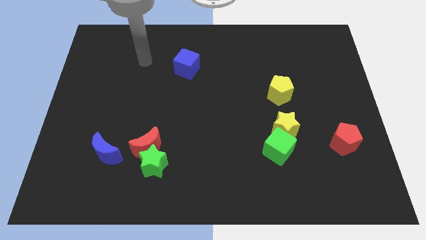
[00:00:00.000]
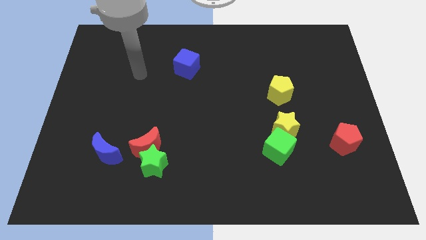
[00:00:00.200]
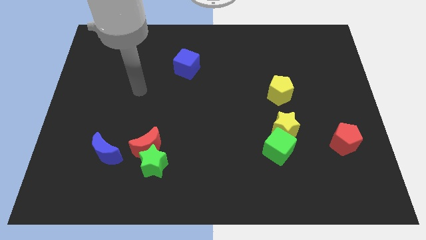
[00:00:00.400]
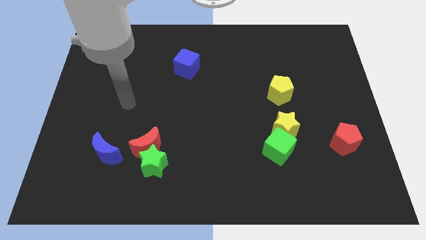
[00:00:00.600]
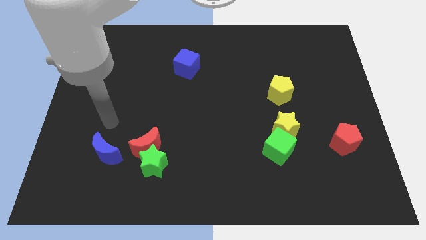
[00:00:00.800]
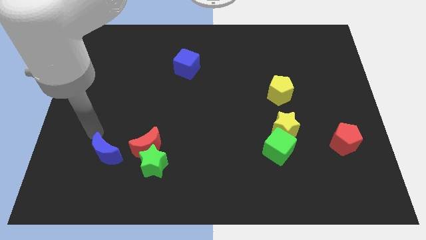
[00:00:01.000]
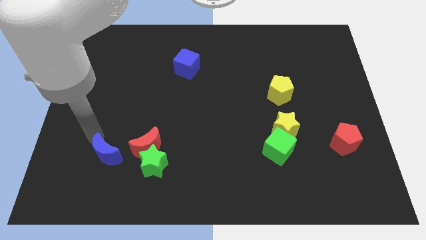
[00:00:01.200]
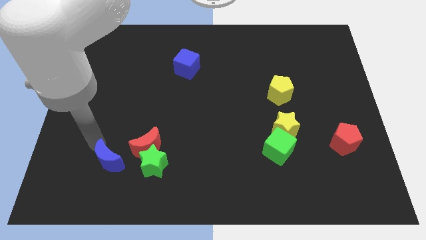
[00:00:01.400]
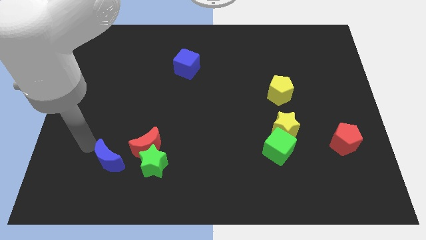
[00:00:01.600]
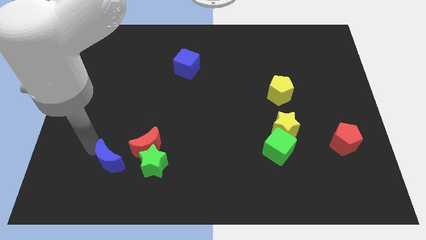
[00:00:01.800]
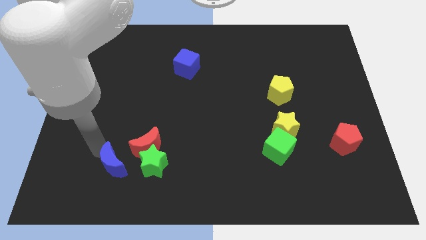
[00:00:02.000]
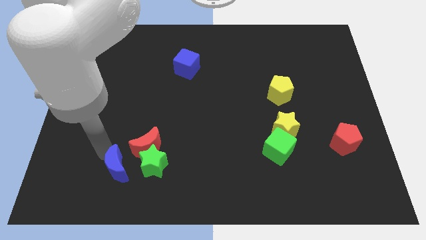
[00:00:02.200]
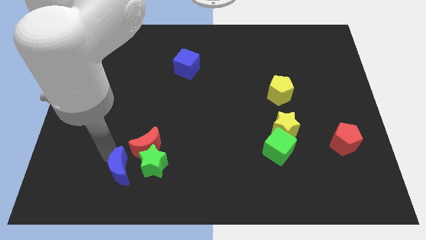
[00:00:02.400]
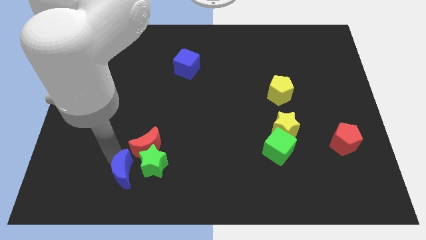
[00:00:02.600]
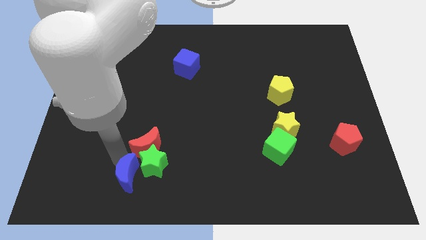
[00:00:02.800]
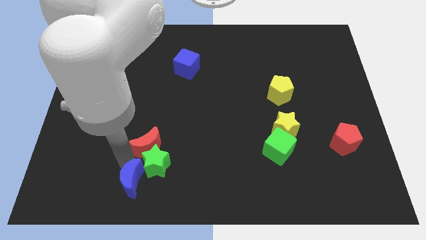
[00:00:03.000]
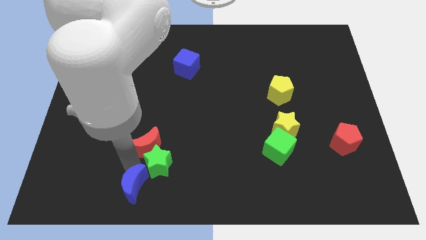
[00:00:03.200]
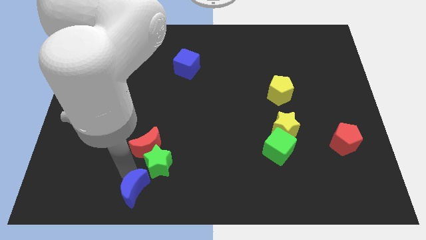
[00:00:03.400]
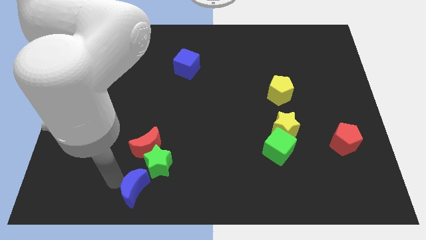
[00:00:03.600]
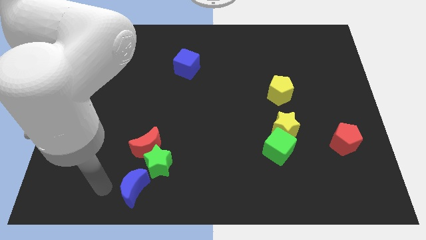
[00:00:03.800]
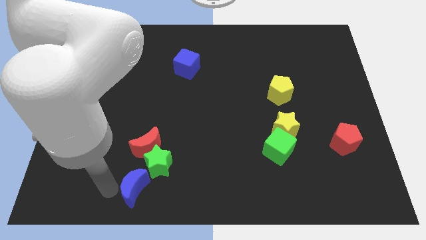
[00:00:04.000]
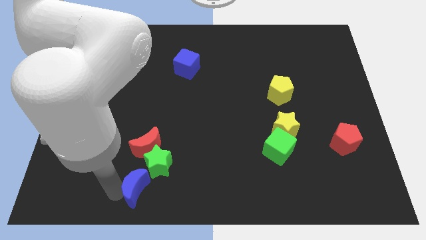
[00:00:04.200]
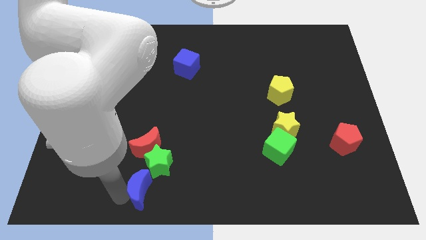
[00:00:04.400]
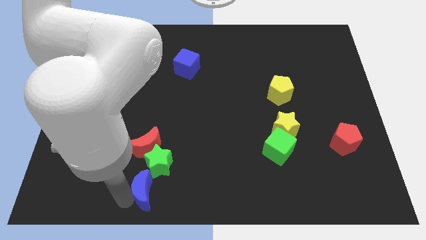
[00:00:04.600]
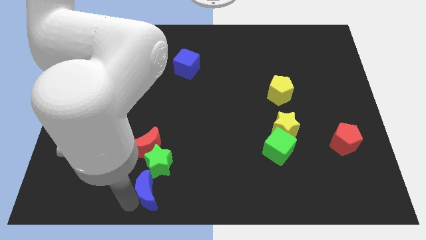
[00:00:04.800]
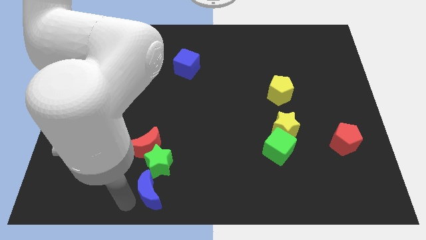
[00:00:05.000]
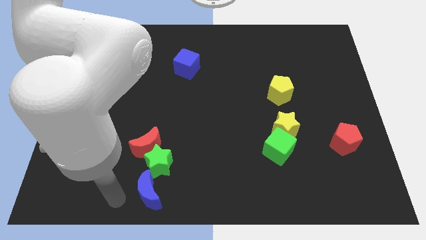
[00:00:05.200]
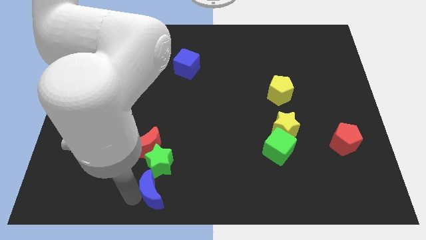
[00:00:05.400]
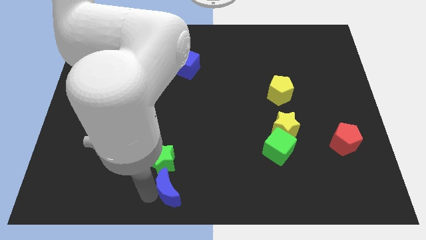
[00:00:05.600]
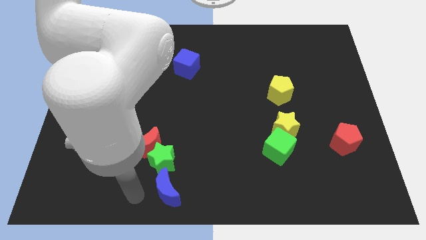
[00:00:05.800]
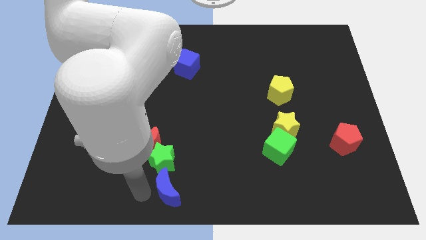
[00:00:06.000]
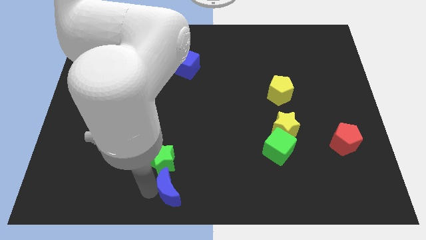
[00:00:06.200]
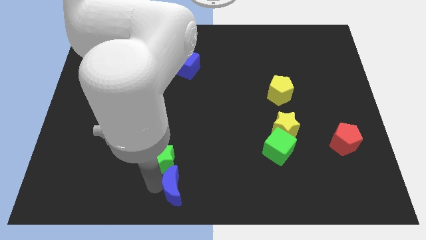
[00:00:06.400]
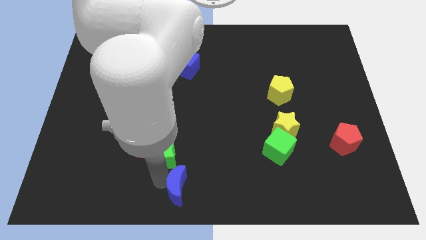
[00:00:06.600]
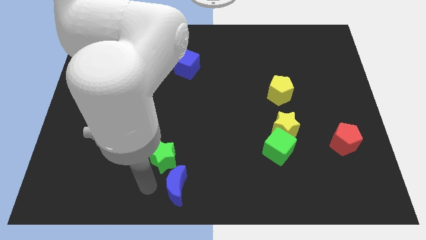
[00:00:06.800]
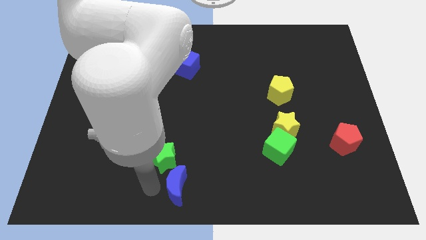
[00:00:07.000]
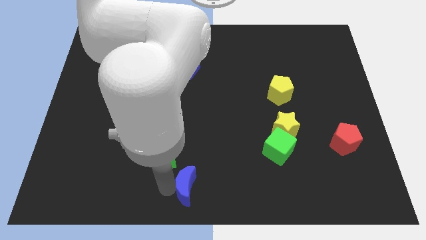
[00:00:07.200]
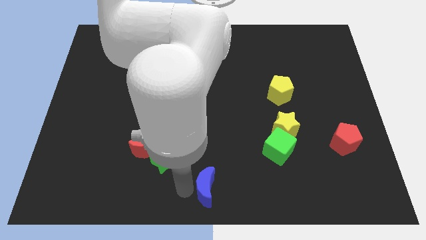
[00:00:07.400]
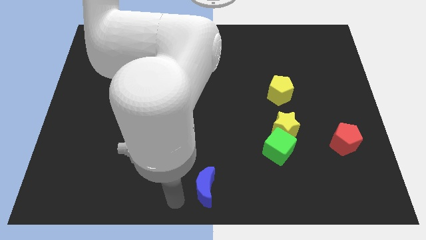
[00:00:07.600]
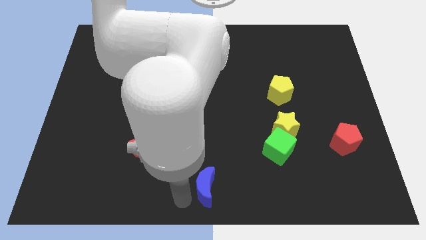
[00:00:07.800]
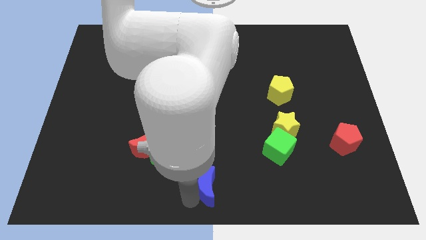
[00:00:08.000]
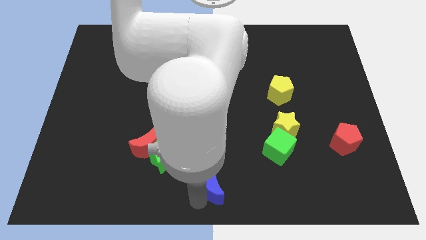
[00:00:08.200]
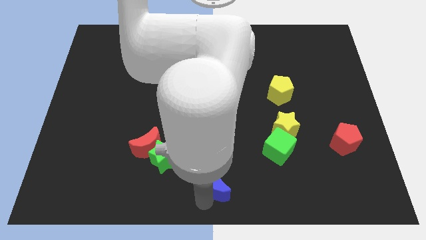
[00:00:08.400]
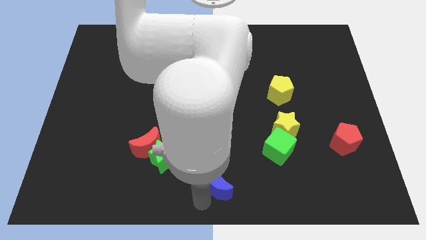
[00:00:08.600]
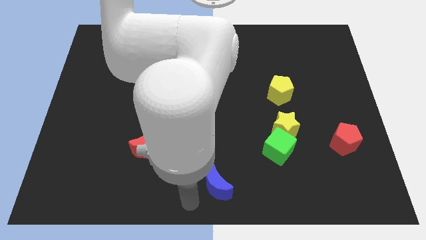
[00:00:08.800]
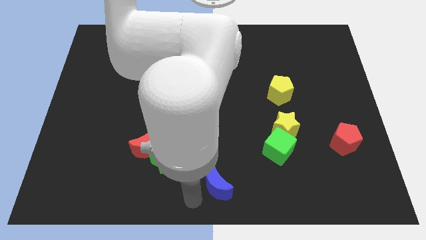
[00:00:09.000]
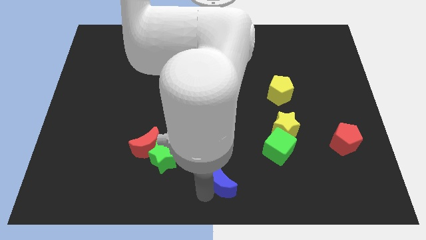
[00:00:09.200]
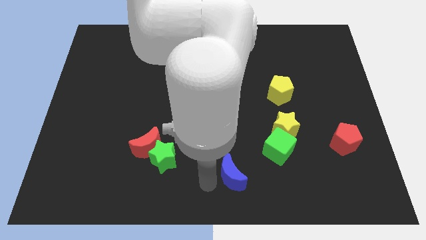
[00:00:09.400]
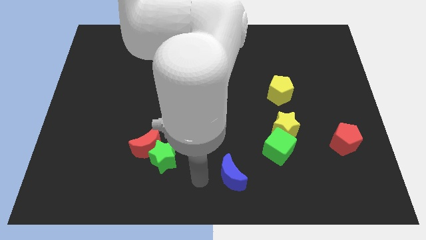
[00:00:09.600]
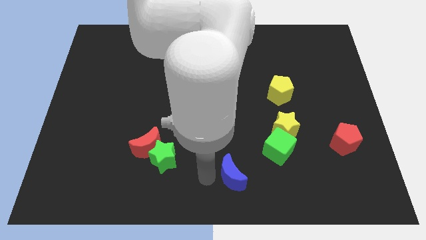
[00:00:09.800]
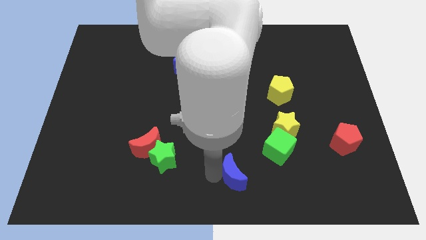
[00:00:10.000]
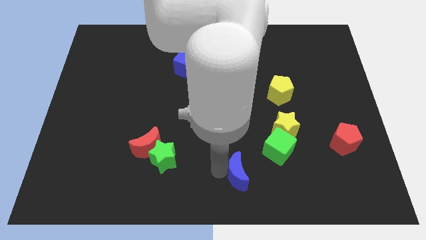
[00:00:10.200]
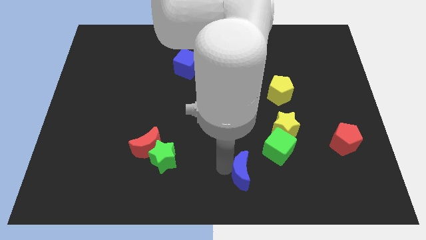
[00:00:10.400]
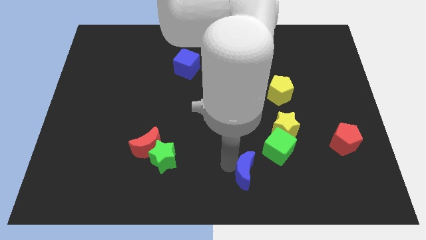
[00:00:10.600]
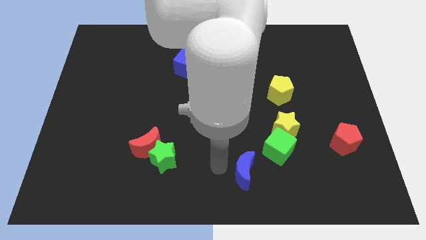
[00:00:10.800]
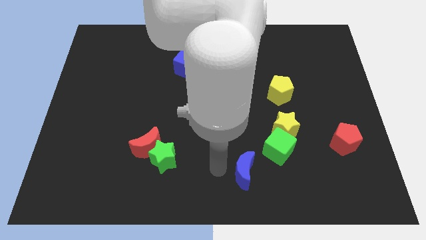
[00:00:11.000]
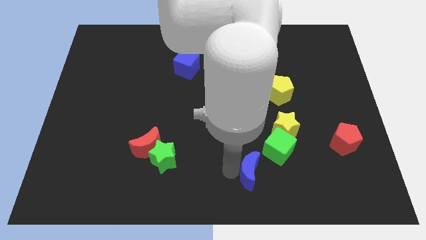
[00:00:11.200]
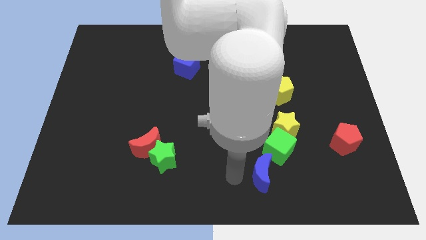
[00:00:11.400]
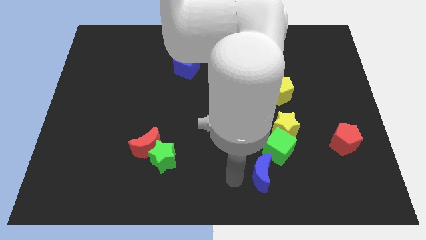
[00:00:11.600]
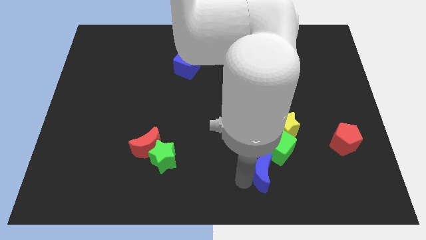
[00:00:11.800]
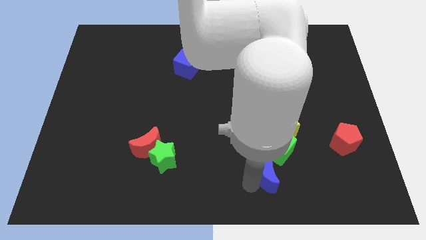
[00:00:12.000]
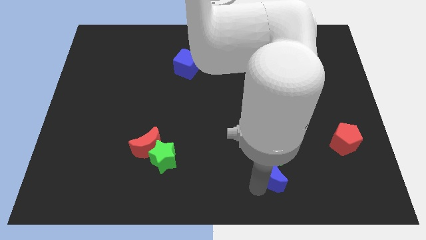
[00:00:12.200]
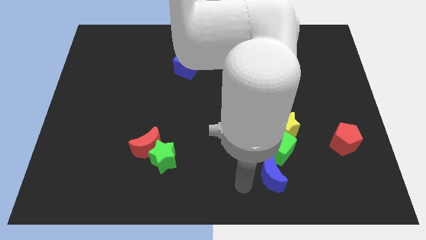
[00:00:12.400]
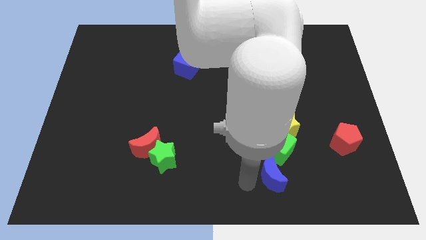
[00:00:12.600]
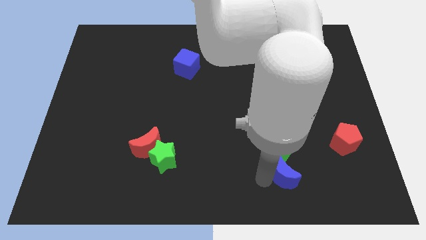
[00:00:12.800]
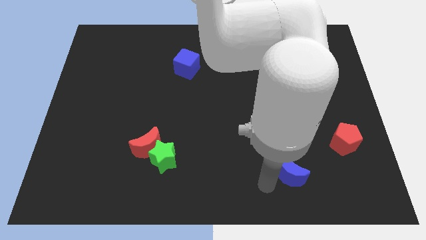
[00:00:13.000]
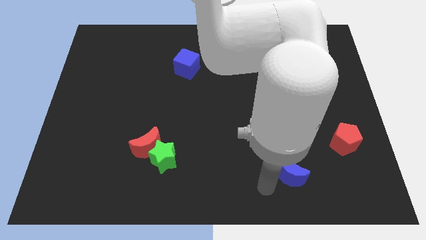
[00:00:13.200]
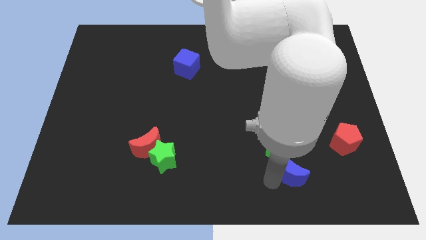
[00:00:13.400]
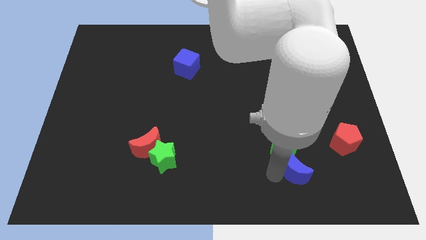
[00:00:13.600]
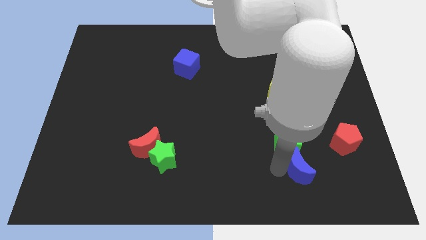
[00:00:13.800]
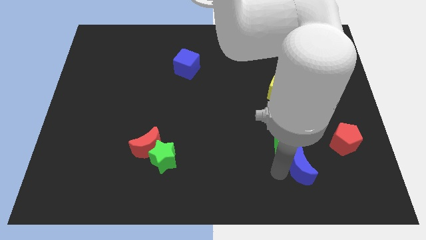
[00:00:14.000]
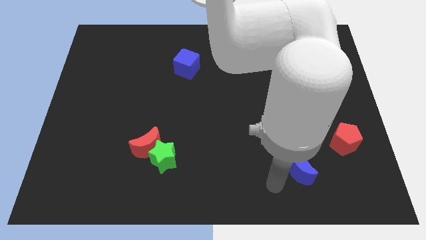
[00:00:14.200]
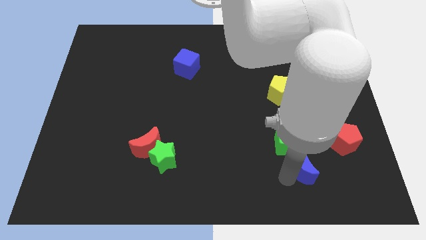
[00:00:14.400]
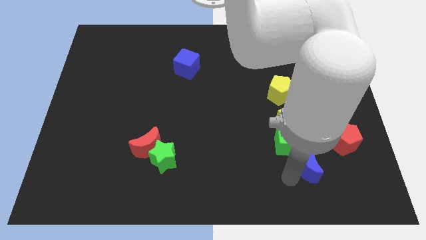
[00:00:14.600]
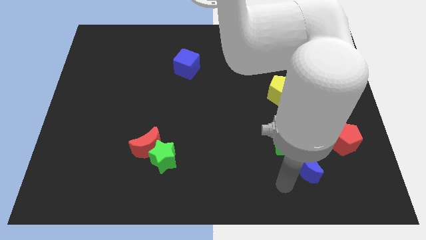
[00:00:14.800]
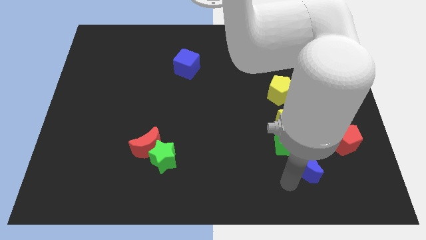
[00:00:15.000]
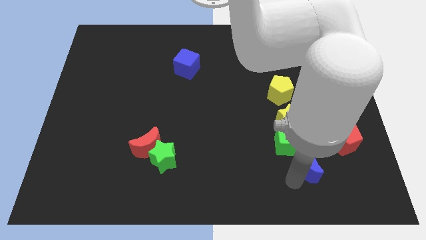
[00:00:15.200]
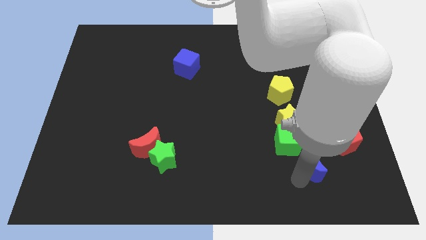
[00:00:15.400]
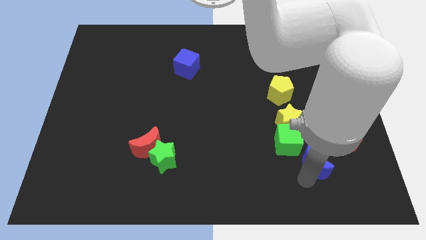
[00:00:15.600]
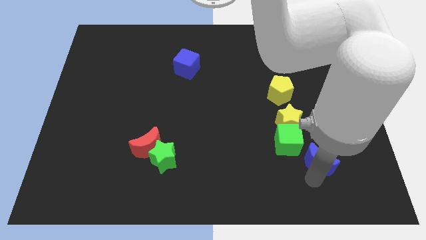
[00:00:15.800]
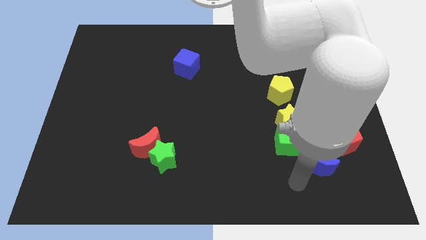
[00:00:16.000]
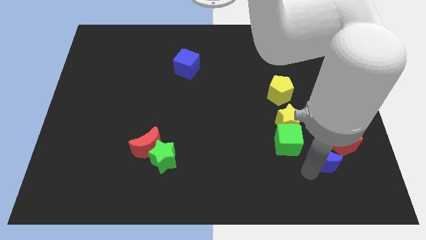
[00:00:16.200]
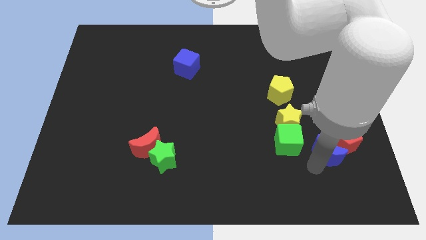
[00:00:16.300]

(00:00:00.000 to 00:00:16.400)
put the blue moon next to the red pentagon
